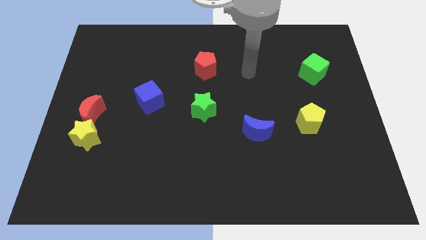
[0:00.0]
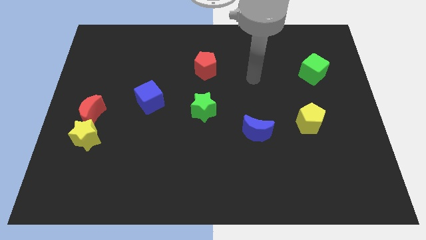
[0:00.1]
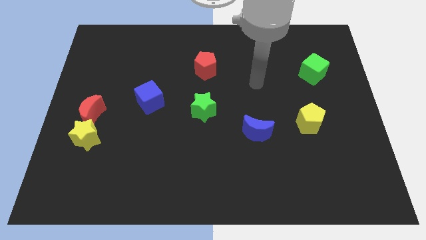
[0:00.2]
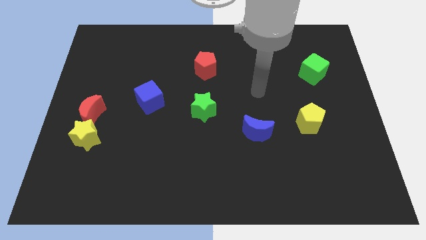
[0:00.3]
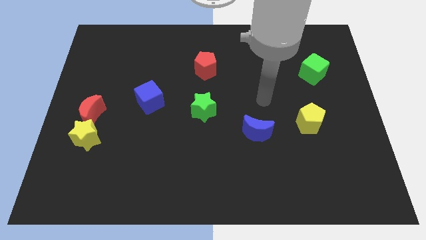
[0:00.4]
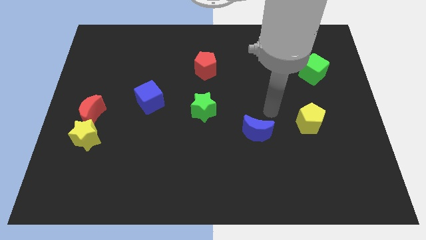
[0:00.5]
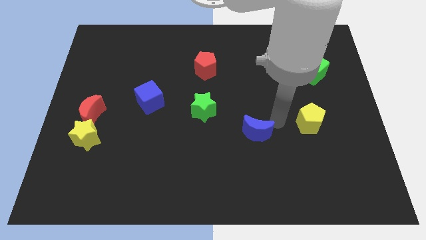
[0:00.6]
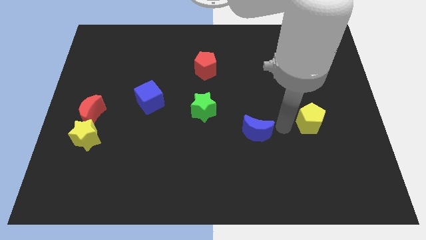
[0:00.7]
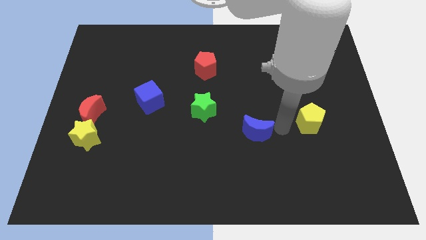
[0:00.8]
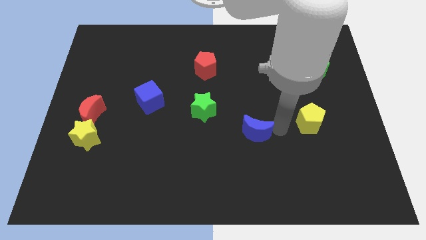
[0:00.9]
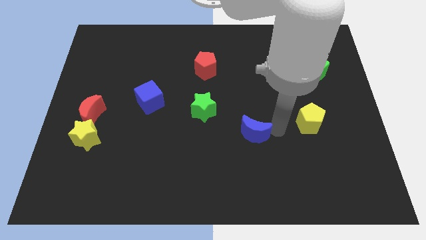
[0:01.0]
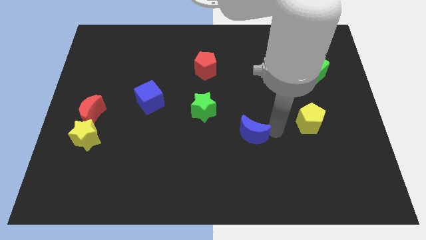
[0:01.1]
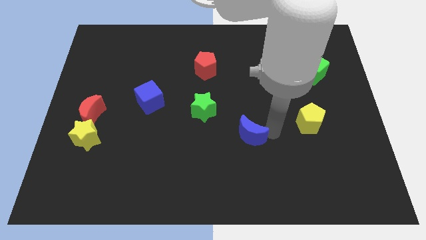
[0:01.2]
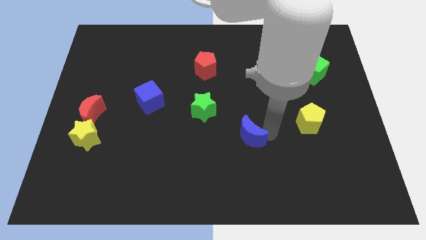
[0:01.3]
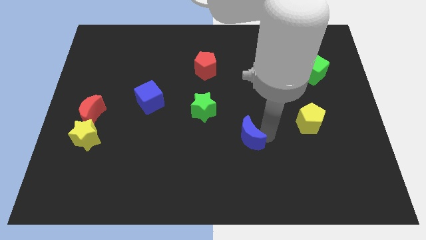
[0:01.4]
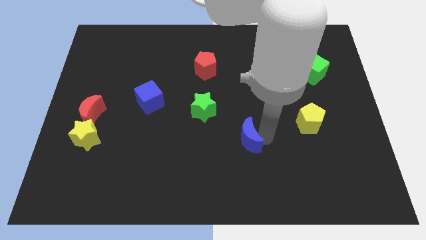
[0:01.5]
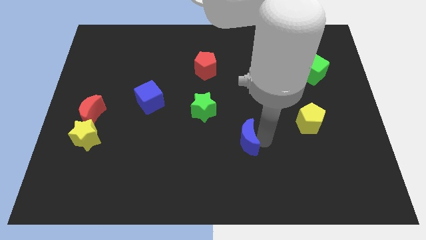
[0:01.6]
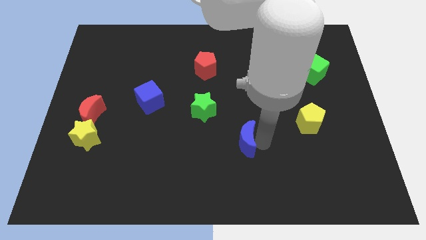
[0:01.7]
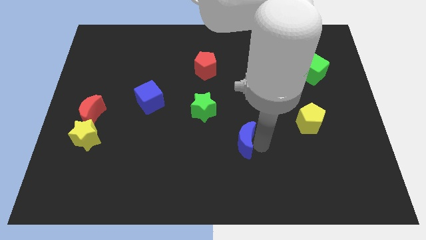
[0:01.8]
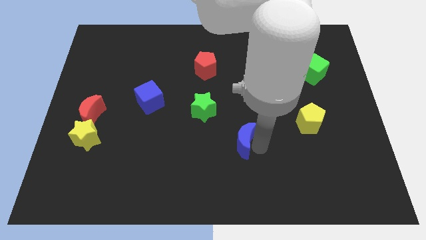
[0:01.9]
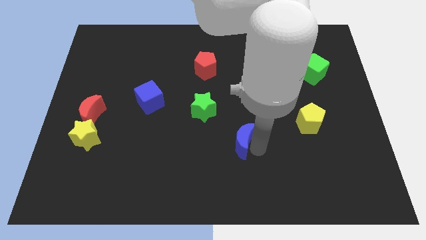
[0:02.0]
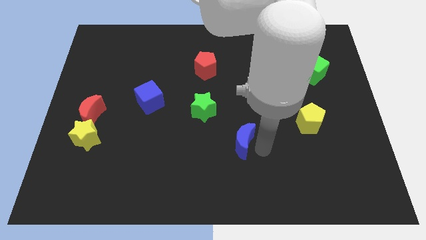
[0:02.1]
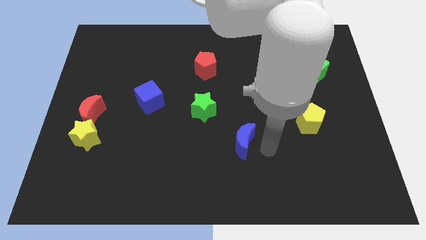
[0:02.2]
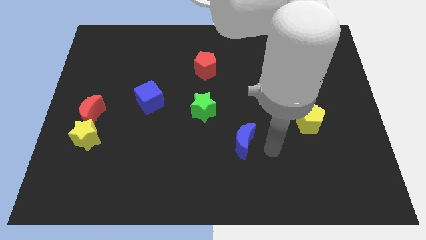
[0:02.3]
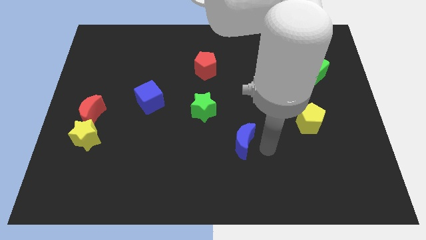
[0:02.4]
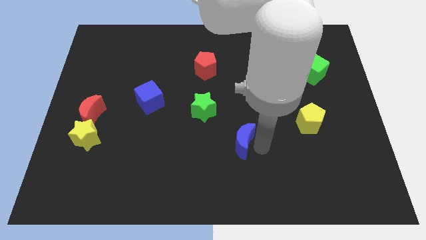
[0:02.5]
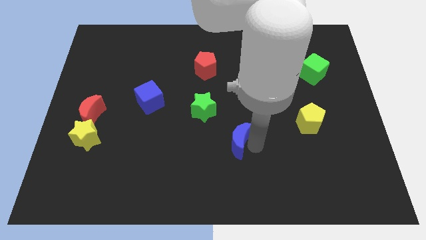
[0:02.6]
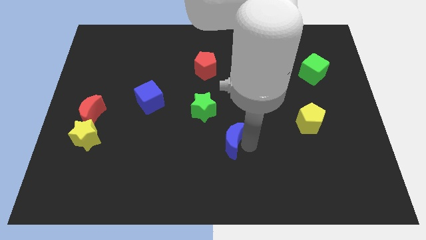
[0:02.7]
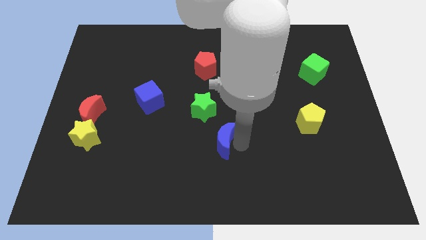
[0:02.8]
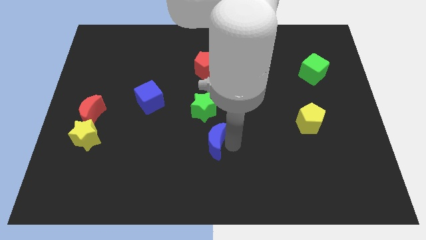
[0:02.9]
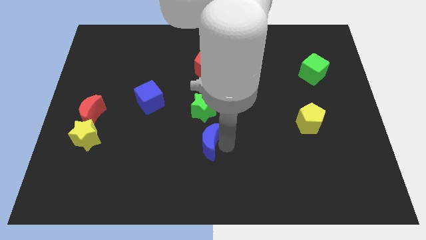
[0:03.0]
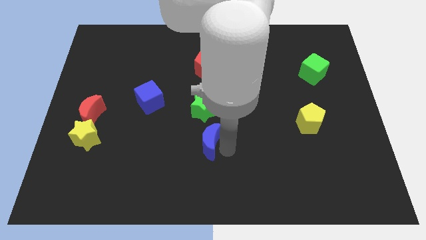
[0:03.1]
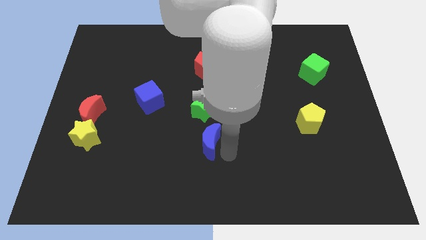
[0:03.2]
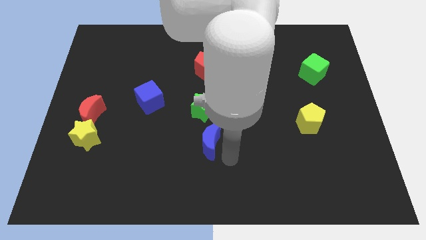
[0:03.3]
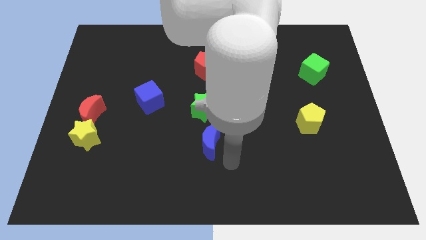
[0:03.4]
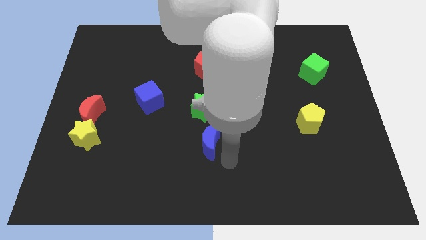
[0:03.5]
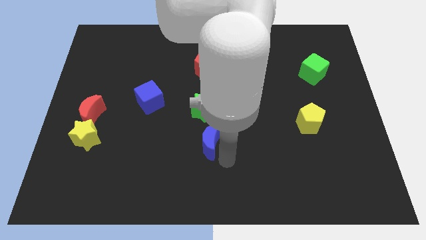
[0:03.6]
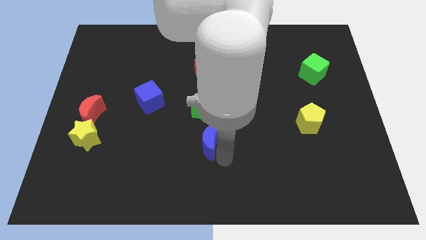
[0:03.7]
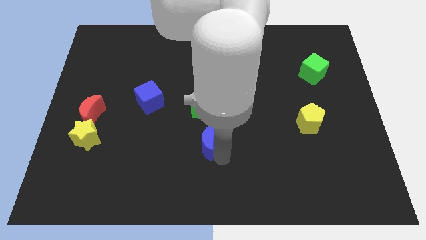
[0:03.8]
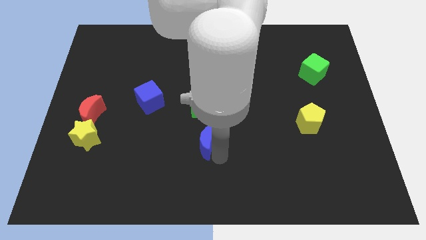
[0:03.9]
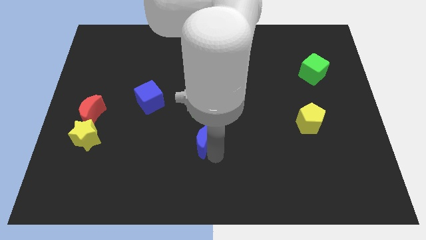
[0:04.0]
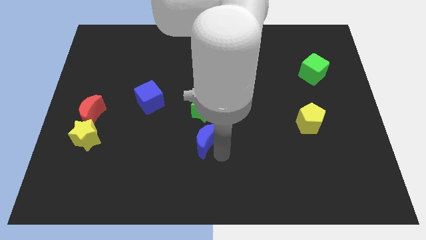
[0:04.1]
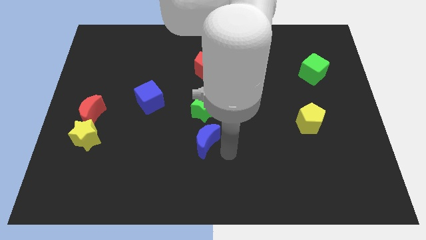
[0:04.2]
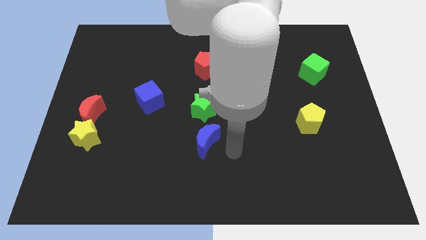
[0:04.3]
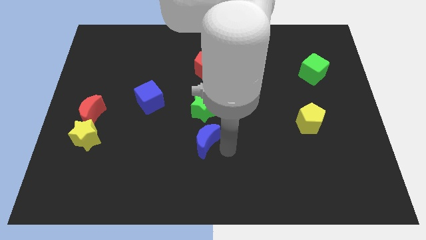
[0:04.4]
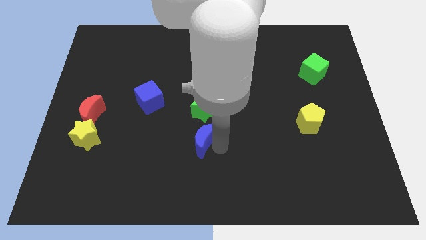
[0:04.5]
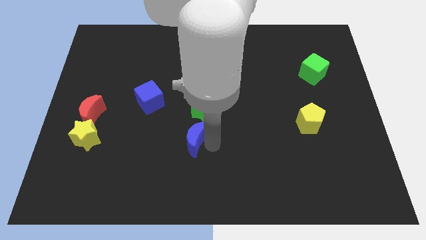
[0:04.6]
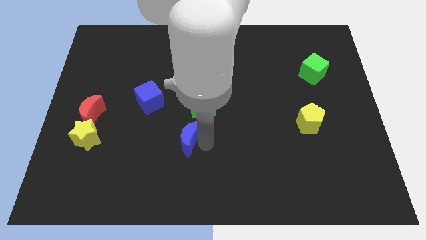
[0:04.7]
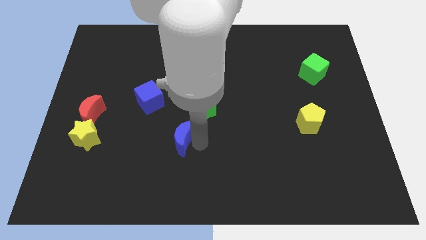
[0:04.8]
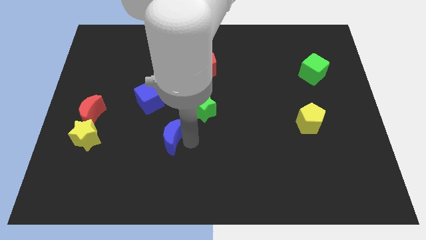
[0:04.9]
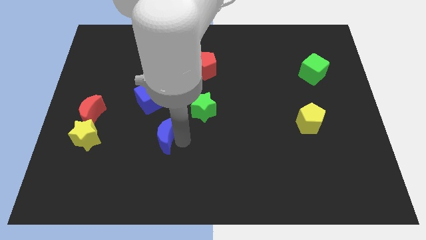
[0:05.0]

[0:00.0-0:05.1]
slide the blue moon to the left

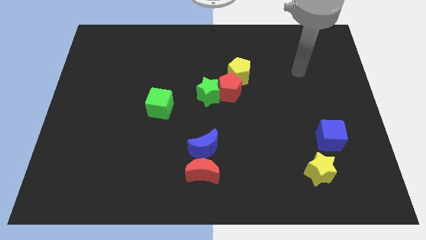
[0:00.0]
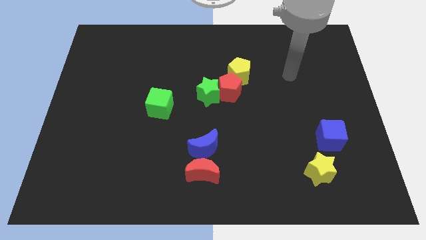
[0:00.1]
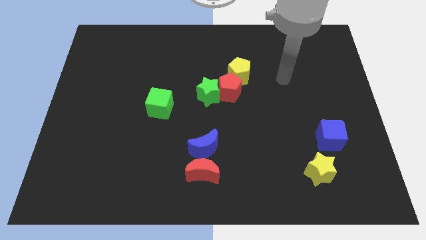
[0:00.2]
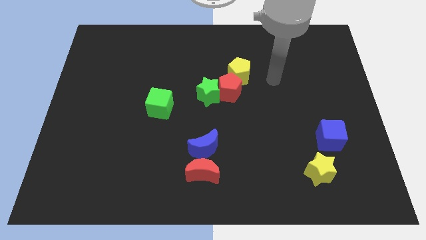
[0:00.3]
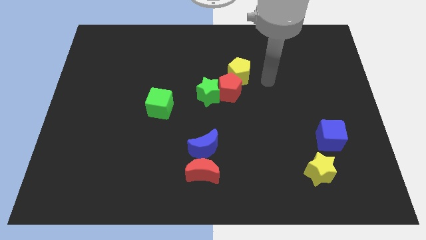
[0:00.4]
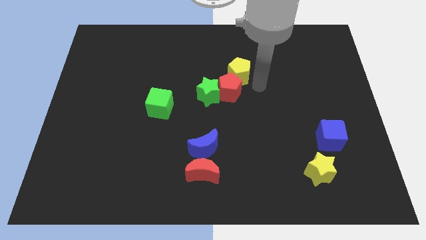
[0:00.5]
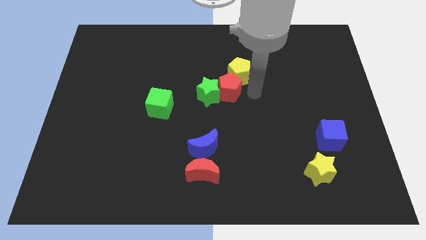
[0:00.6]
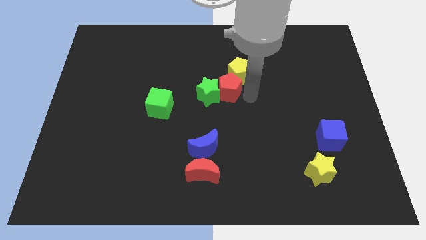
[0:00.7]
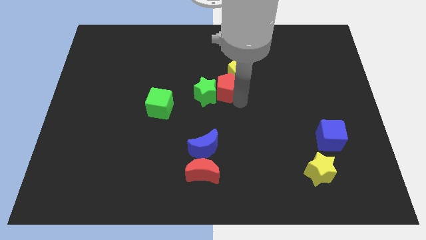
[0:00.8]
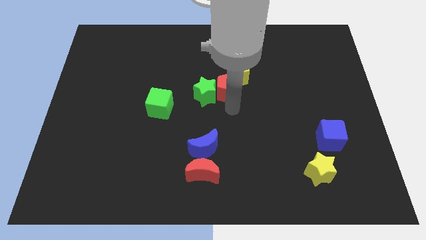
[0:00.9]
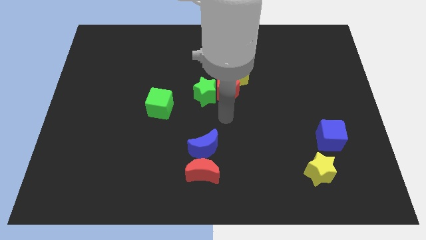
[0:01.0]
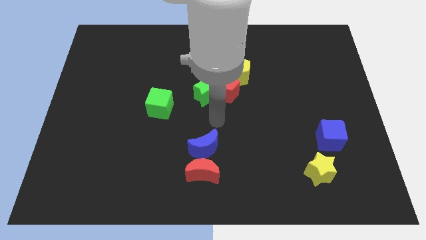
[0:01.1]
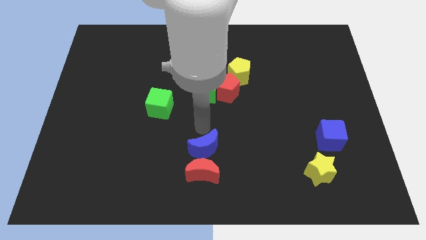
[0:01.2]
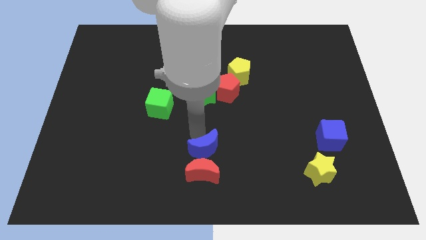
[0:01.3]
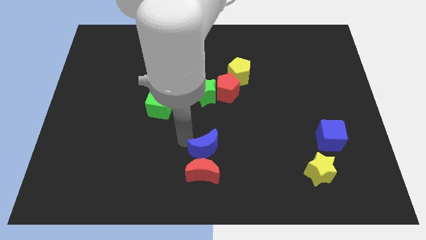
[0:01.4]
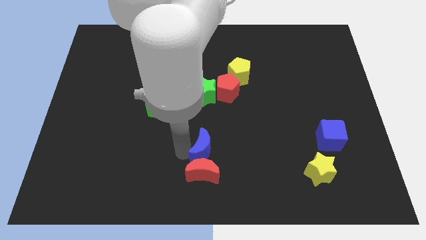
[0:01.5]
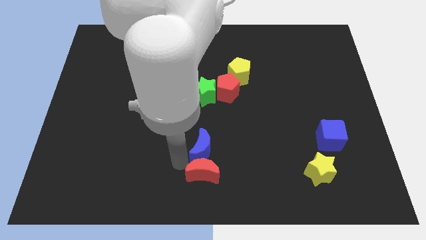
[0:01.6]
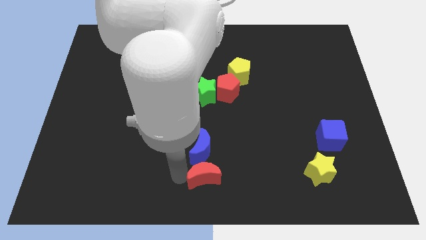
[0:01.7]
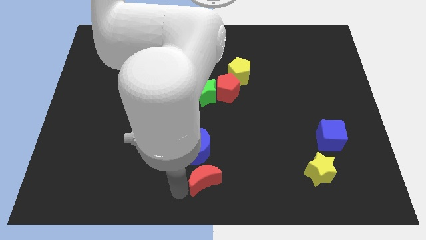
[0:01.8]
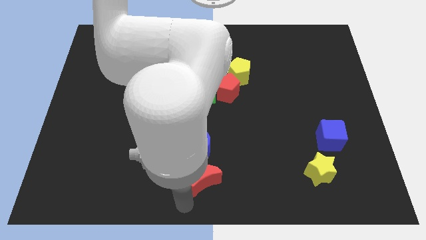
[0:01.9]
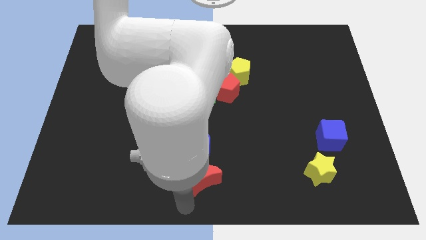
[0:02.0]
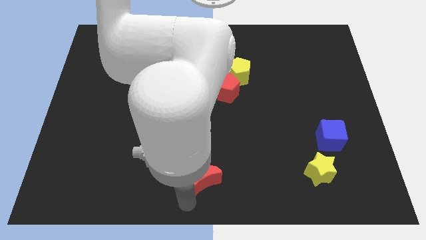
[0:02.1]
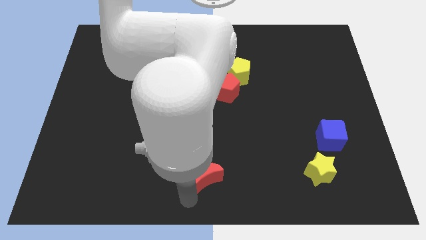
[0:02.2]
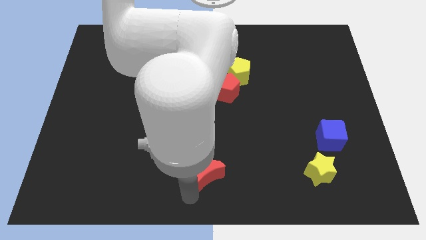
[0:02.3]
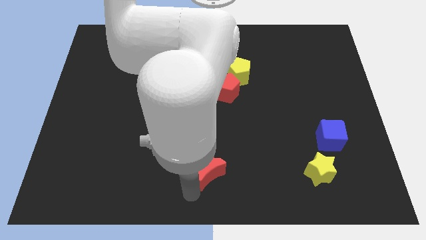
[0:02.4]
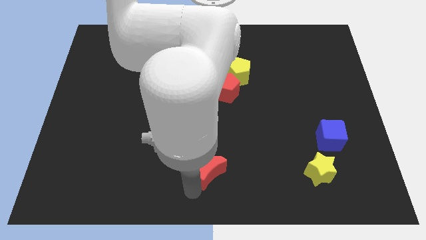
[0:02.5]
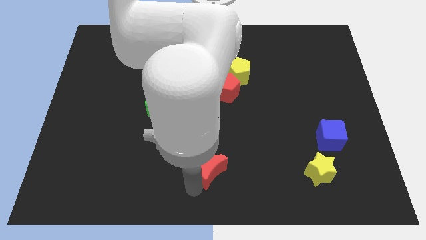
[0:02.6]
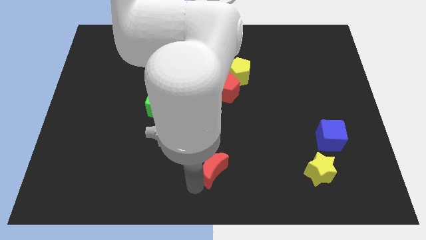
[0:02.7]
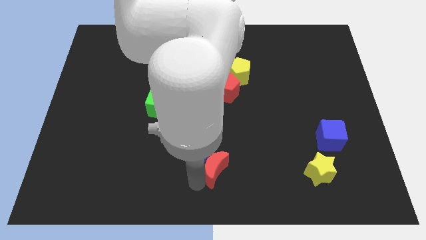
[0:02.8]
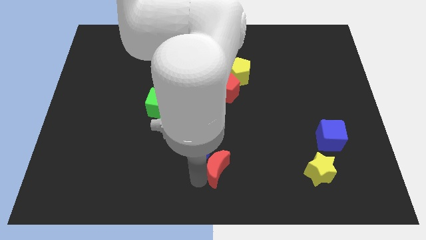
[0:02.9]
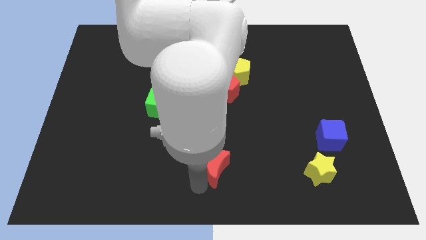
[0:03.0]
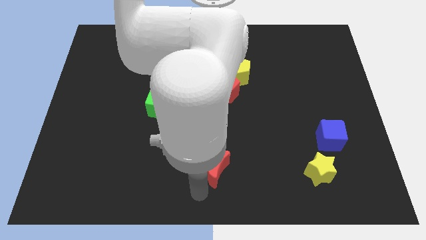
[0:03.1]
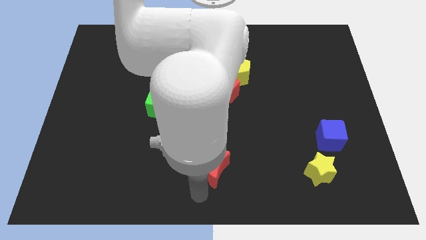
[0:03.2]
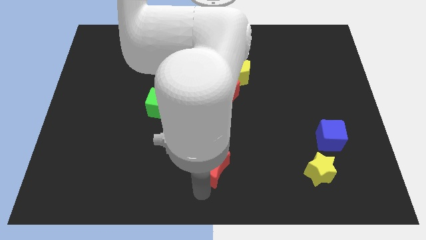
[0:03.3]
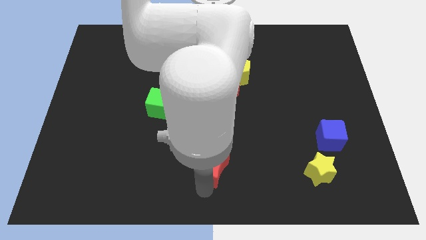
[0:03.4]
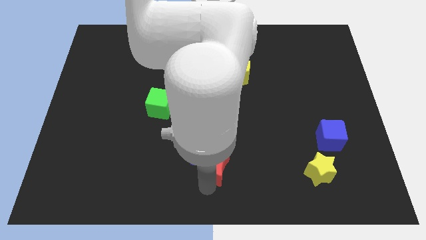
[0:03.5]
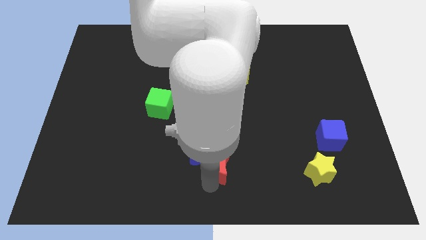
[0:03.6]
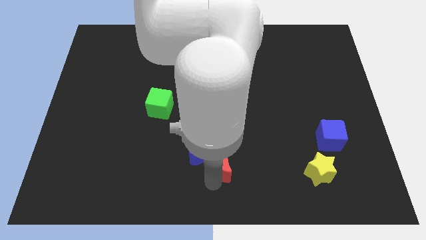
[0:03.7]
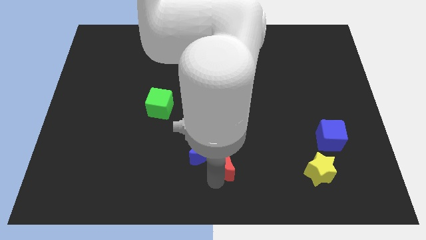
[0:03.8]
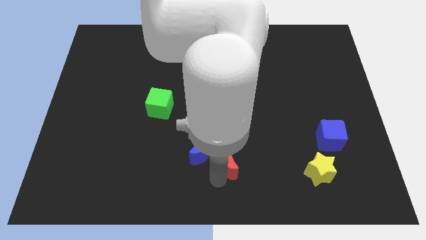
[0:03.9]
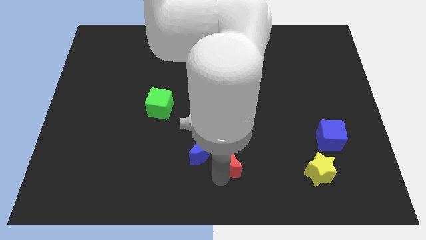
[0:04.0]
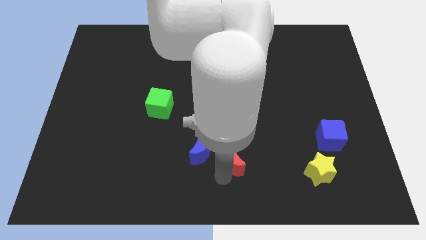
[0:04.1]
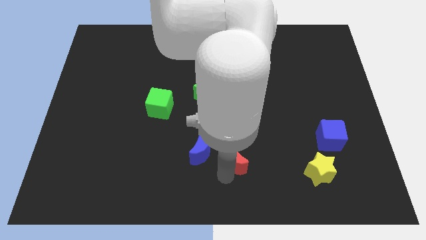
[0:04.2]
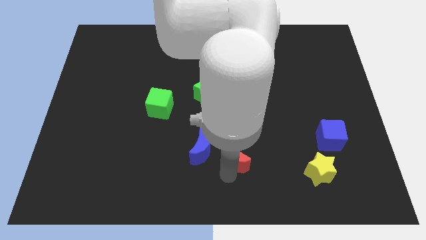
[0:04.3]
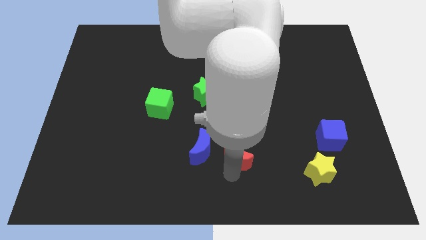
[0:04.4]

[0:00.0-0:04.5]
push the red moon up and to the right diagonally somewhat
